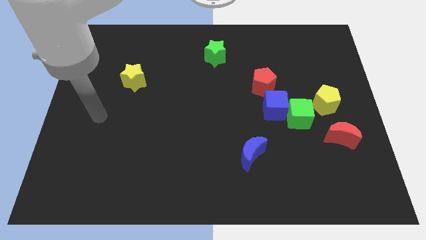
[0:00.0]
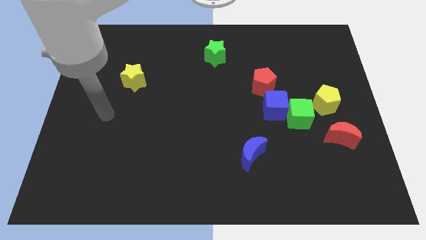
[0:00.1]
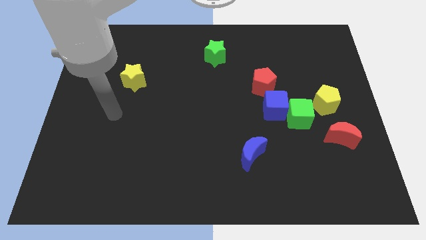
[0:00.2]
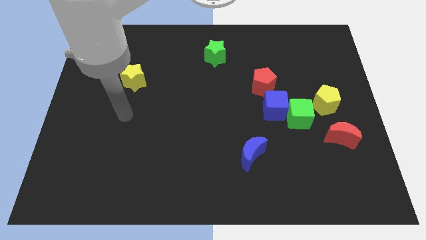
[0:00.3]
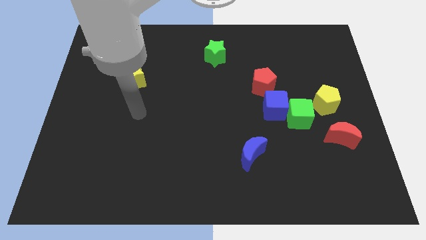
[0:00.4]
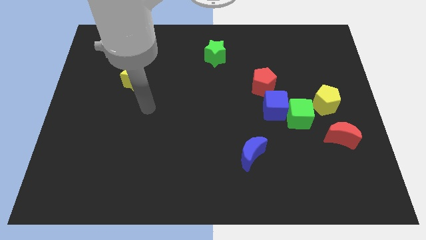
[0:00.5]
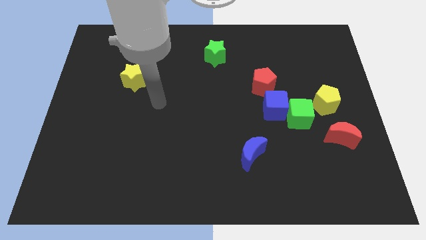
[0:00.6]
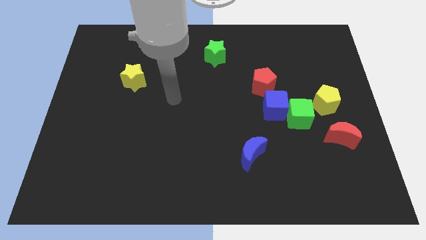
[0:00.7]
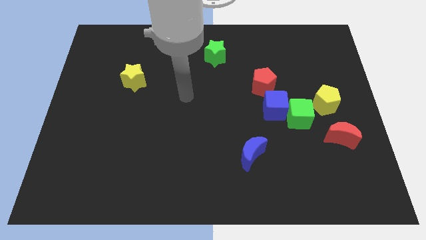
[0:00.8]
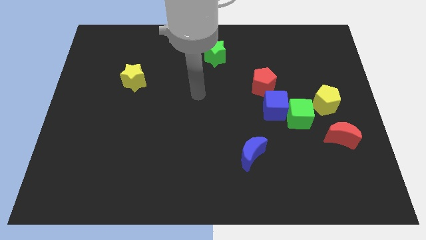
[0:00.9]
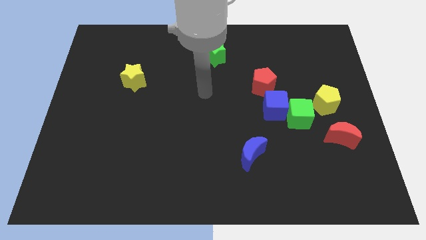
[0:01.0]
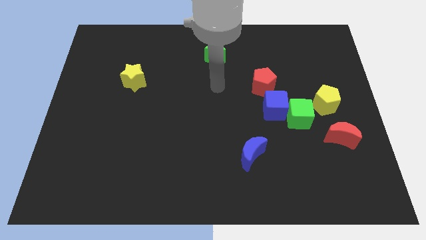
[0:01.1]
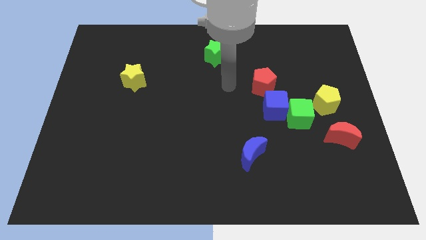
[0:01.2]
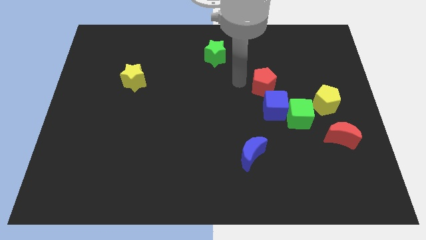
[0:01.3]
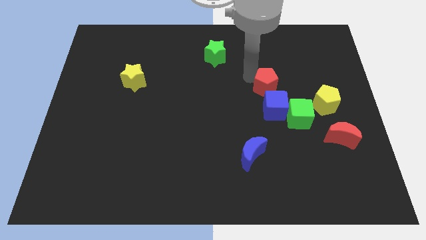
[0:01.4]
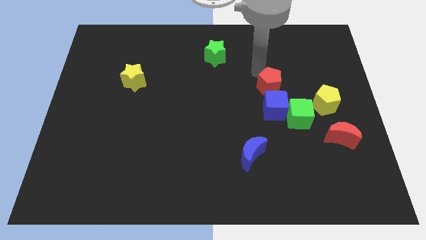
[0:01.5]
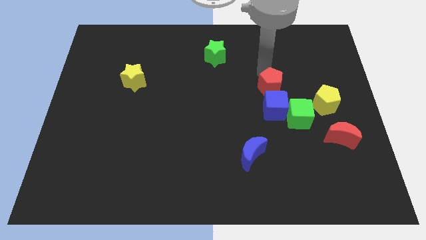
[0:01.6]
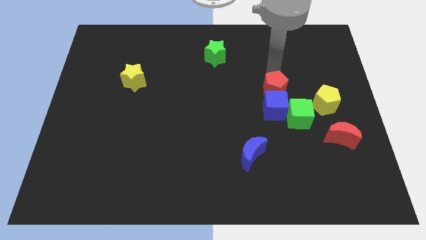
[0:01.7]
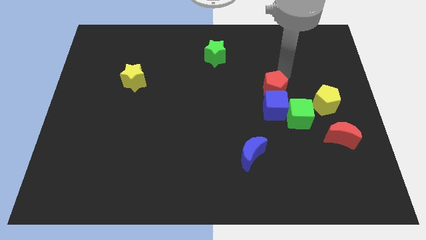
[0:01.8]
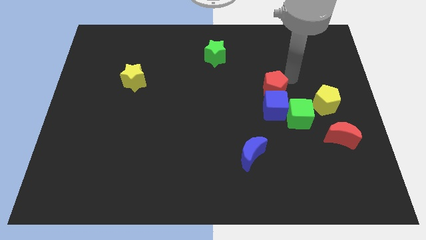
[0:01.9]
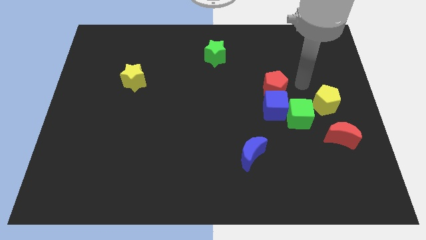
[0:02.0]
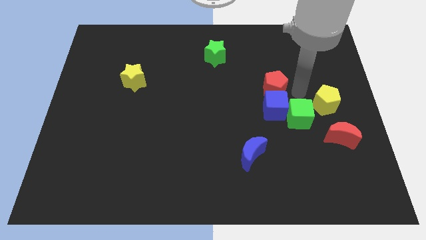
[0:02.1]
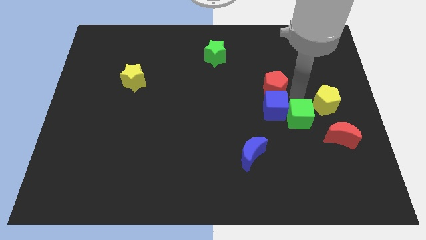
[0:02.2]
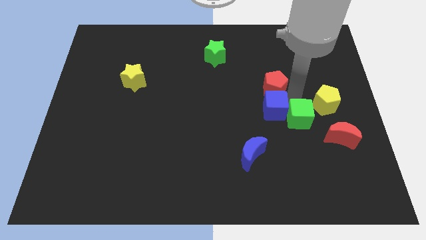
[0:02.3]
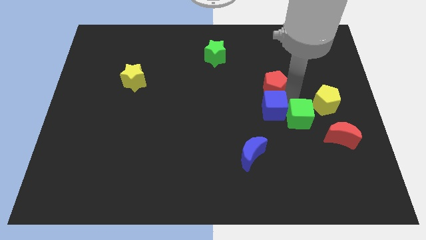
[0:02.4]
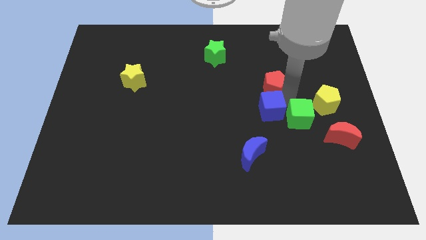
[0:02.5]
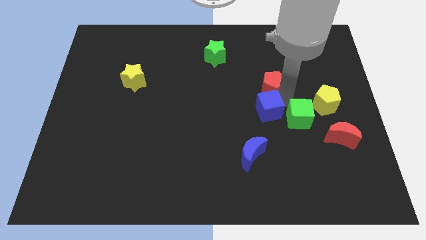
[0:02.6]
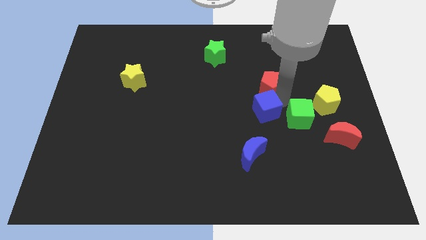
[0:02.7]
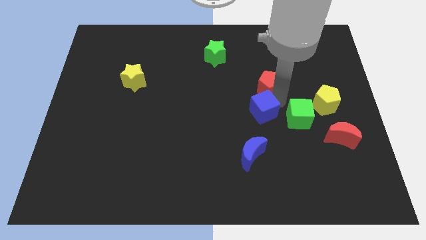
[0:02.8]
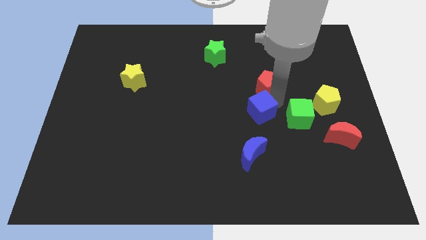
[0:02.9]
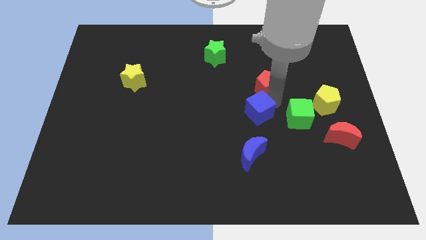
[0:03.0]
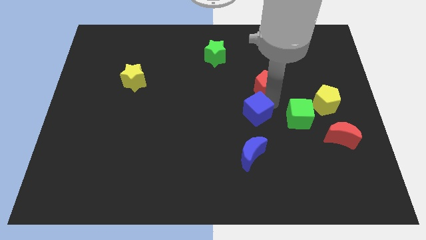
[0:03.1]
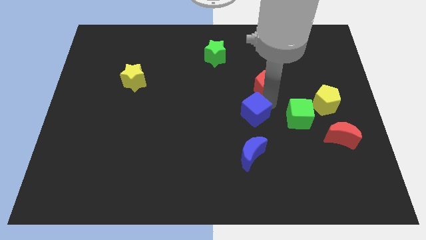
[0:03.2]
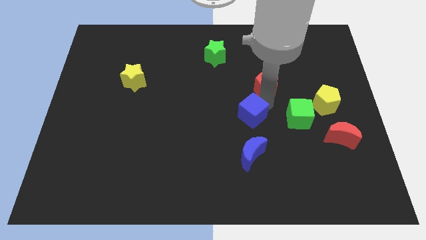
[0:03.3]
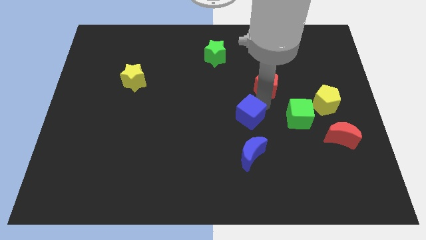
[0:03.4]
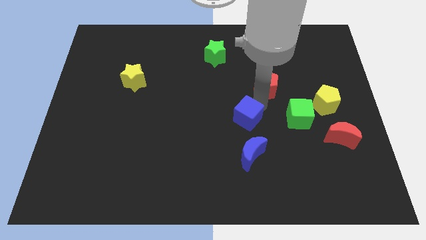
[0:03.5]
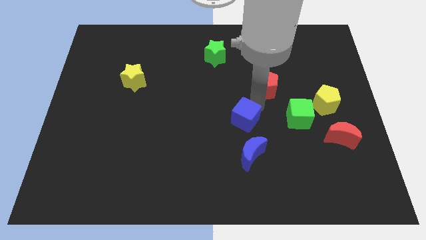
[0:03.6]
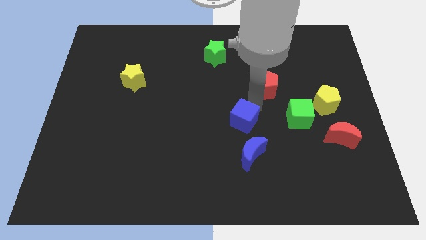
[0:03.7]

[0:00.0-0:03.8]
slightly slide the blue cube downwards and then to the left

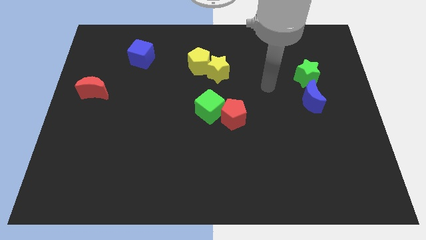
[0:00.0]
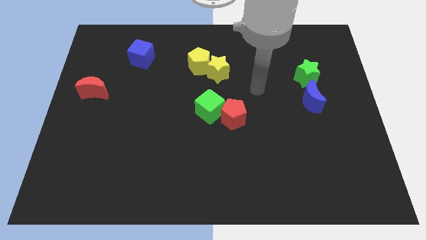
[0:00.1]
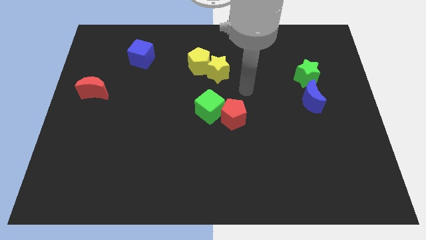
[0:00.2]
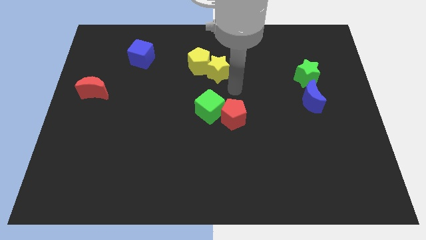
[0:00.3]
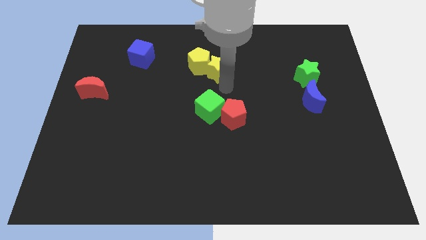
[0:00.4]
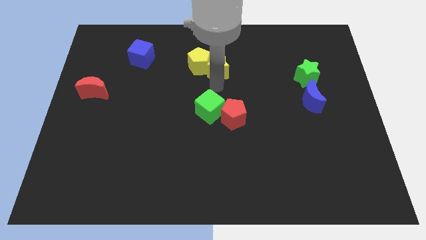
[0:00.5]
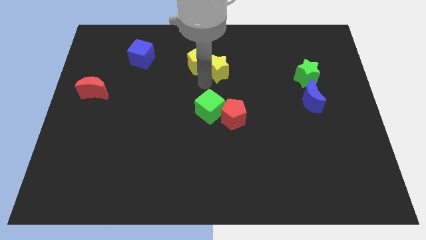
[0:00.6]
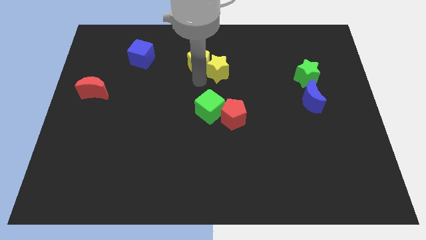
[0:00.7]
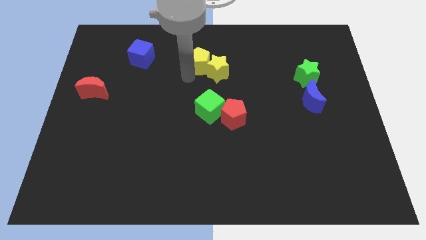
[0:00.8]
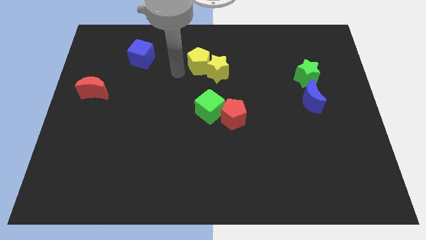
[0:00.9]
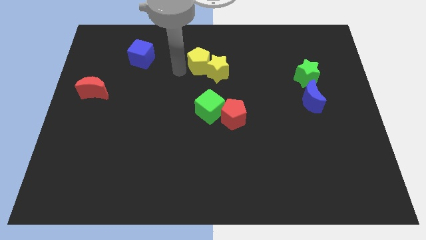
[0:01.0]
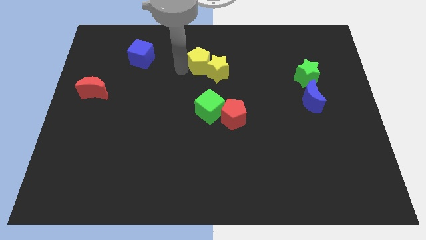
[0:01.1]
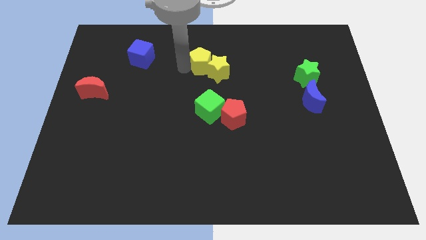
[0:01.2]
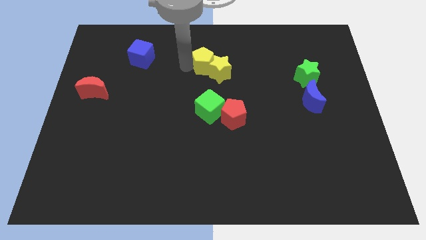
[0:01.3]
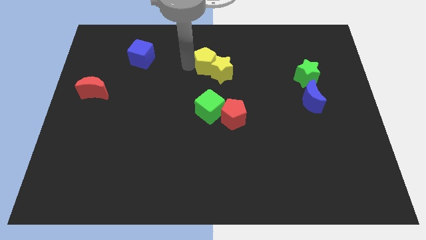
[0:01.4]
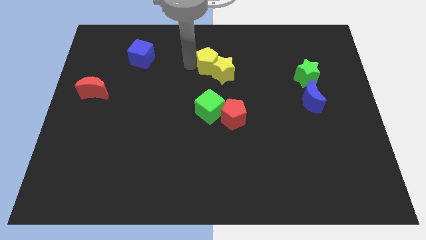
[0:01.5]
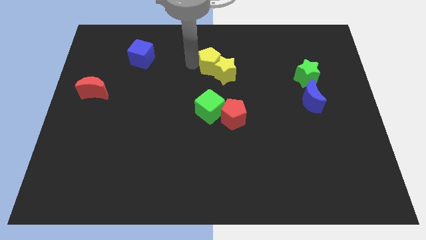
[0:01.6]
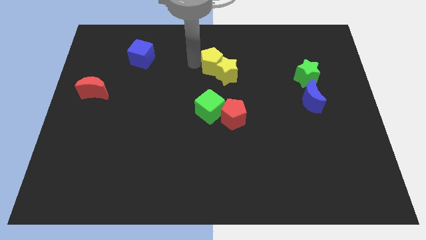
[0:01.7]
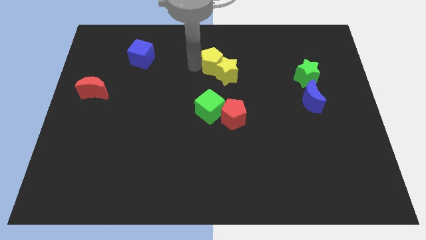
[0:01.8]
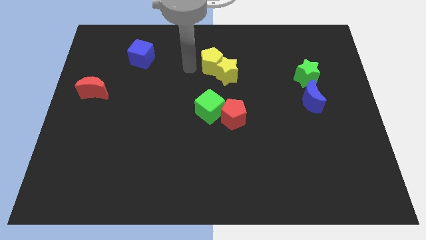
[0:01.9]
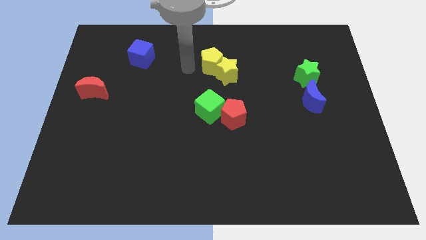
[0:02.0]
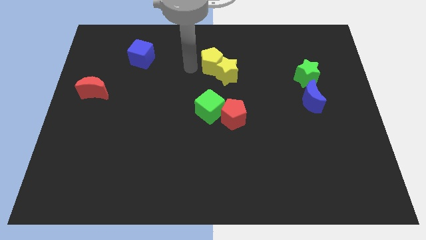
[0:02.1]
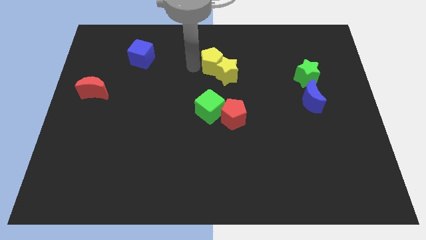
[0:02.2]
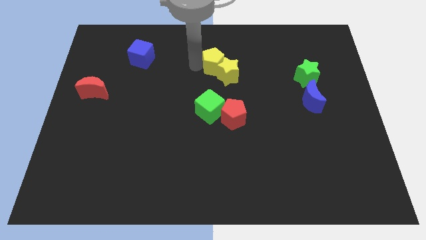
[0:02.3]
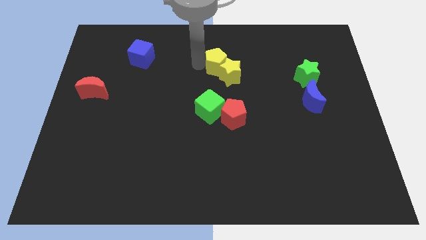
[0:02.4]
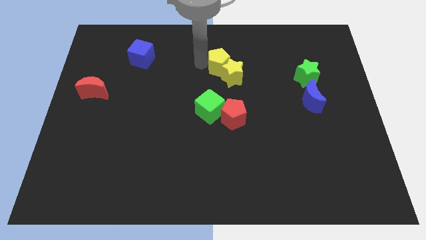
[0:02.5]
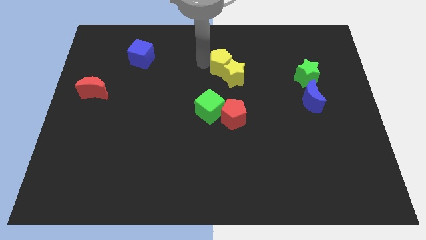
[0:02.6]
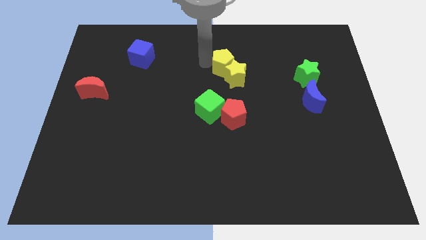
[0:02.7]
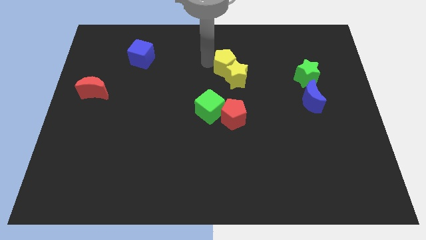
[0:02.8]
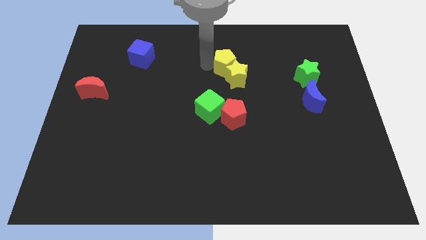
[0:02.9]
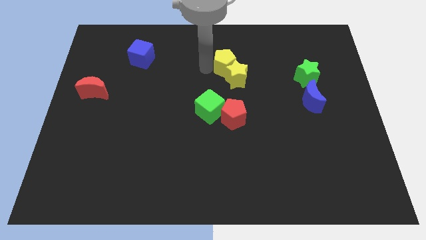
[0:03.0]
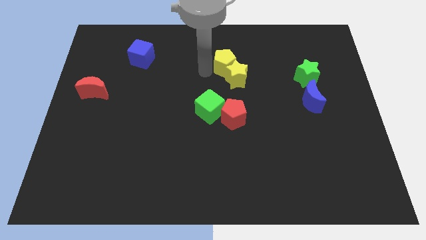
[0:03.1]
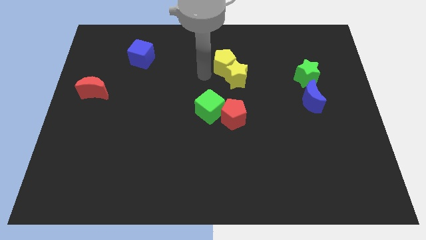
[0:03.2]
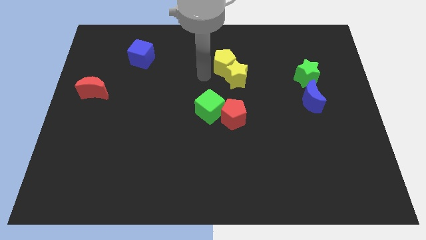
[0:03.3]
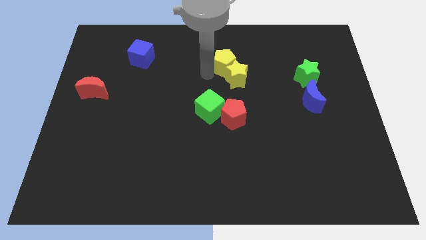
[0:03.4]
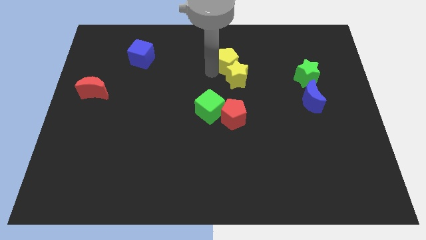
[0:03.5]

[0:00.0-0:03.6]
slightly slide the yellow pentagon to the right

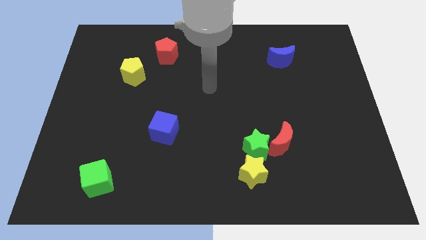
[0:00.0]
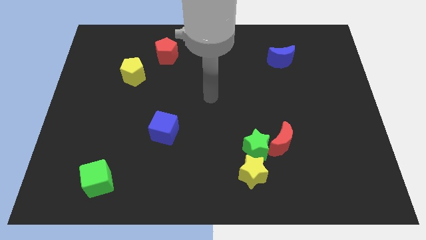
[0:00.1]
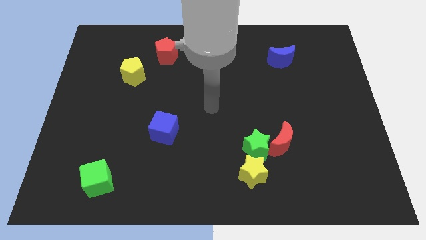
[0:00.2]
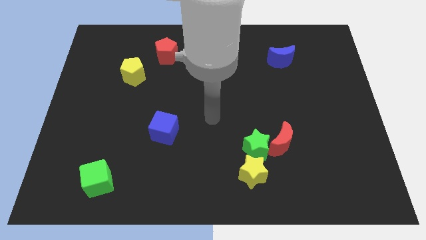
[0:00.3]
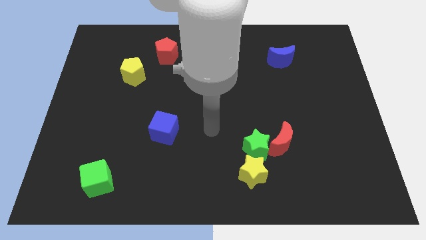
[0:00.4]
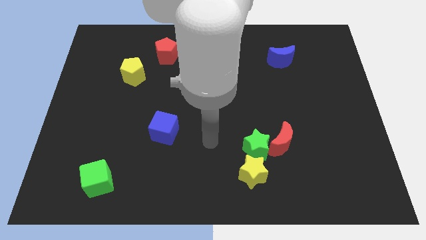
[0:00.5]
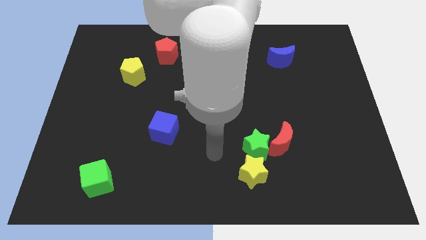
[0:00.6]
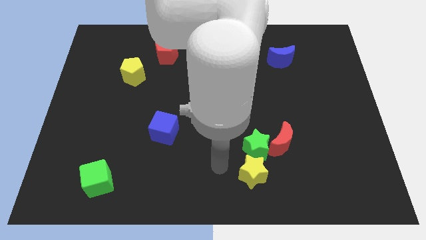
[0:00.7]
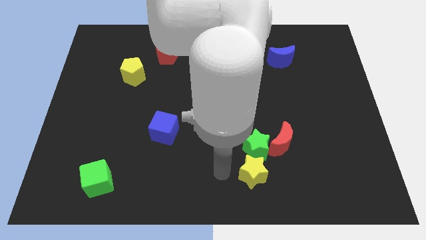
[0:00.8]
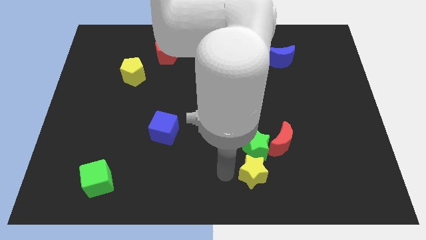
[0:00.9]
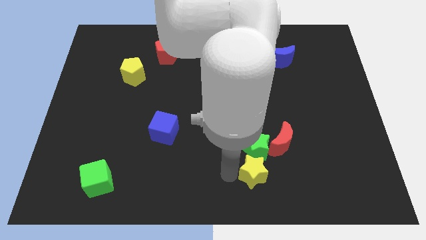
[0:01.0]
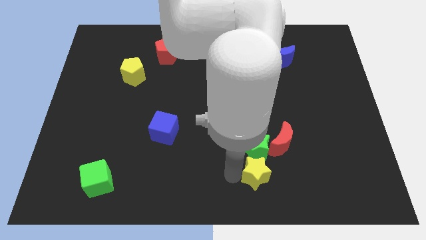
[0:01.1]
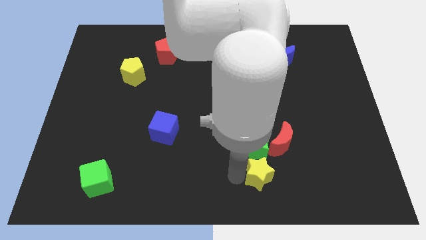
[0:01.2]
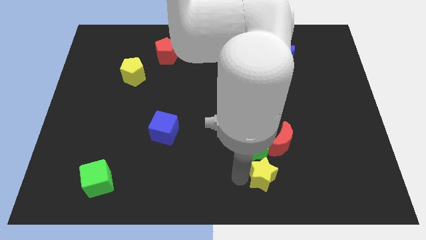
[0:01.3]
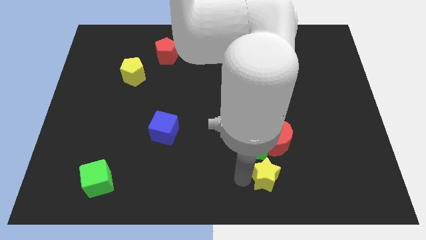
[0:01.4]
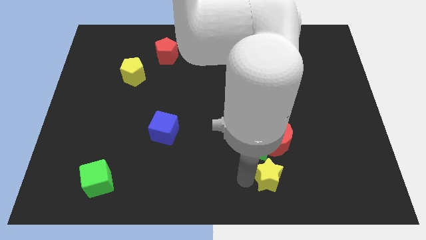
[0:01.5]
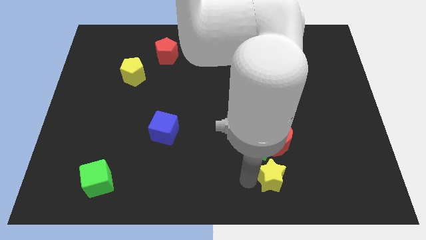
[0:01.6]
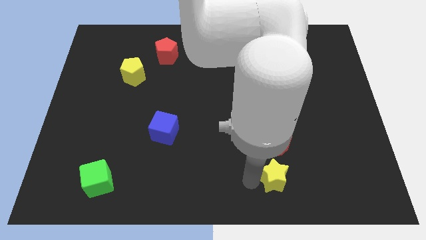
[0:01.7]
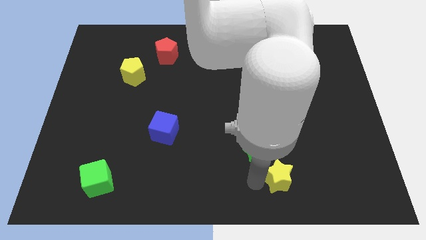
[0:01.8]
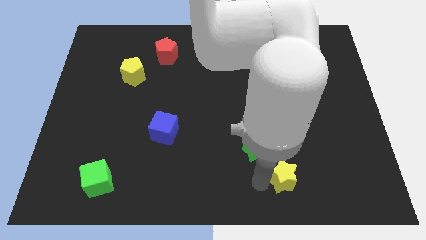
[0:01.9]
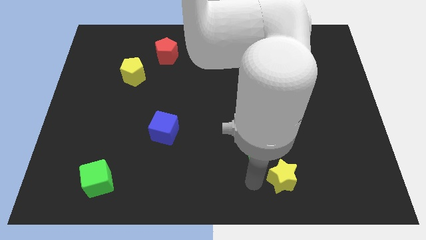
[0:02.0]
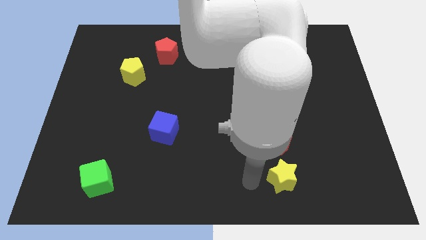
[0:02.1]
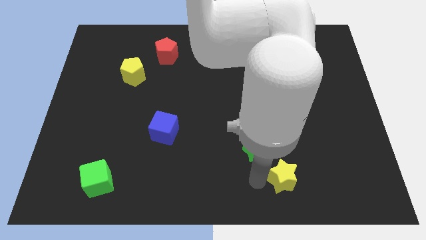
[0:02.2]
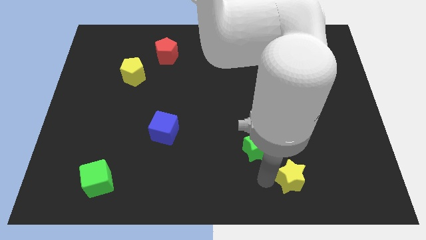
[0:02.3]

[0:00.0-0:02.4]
move the yellow star right slightly
